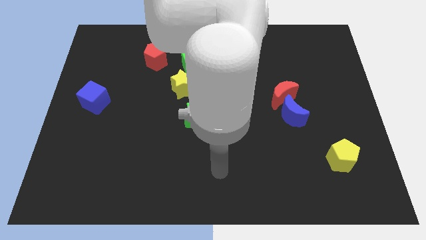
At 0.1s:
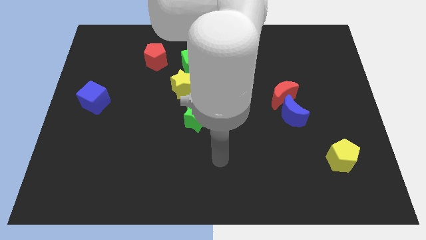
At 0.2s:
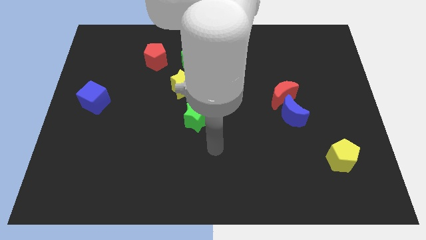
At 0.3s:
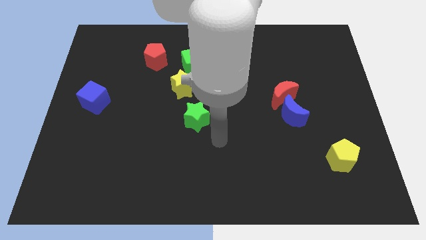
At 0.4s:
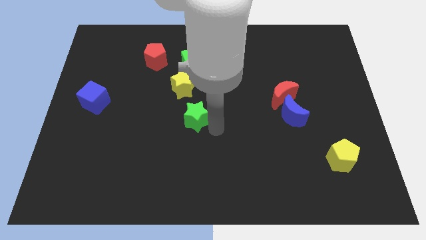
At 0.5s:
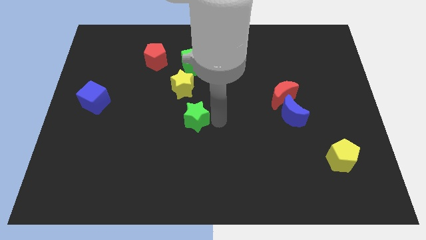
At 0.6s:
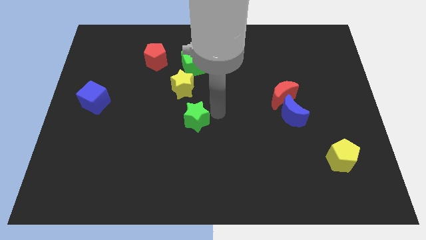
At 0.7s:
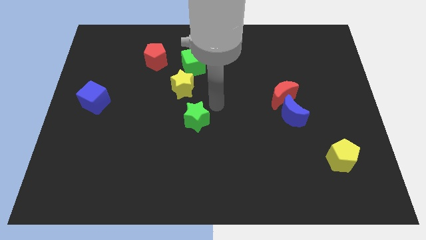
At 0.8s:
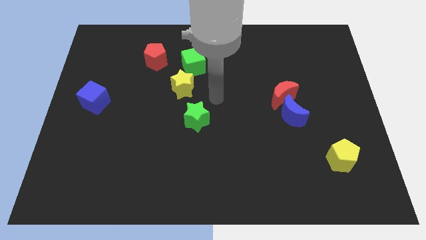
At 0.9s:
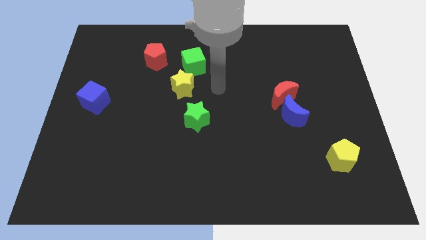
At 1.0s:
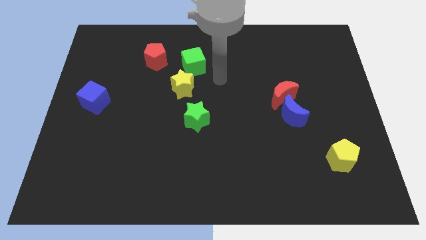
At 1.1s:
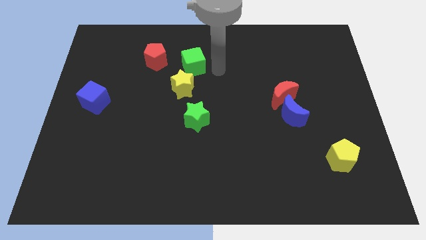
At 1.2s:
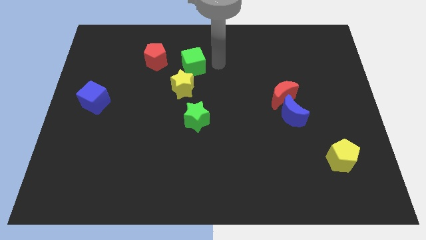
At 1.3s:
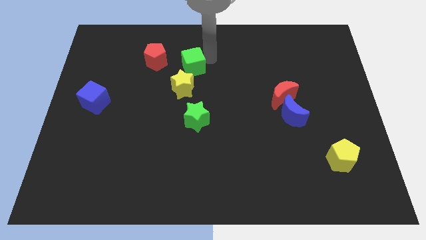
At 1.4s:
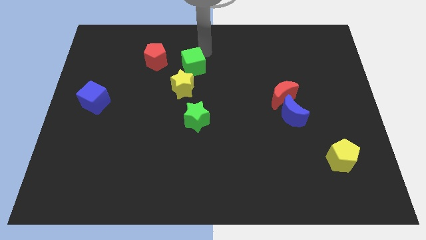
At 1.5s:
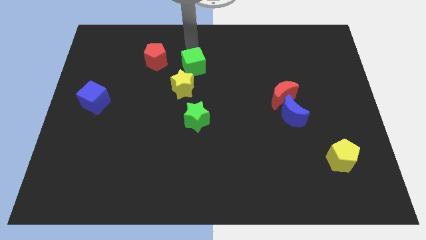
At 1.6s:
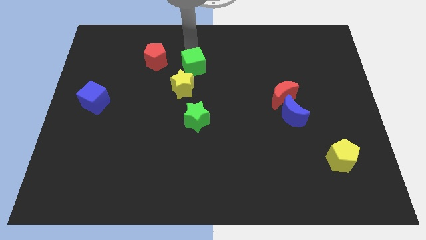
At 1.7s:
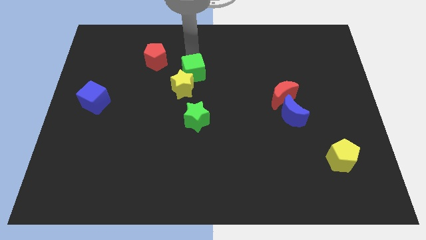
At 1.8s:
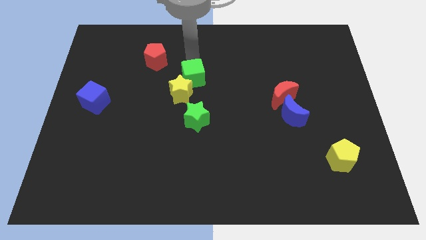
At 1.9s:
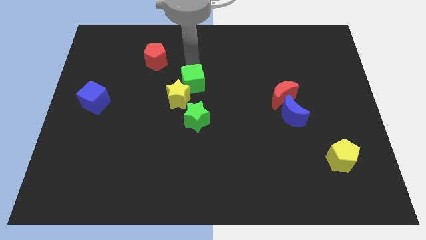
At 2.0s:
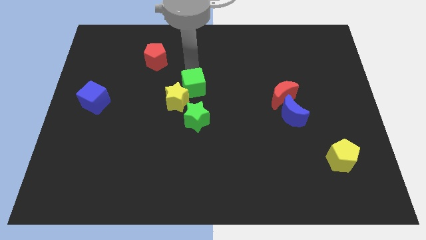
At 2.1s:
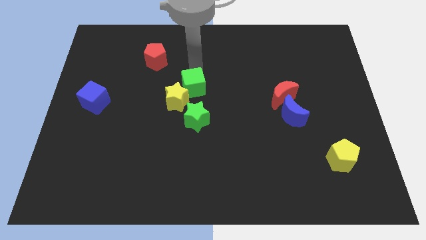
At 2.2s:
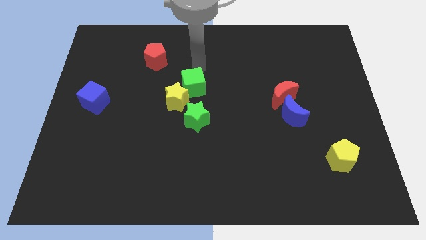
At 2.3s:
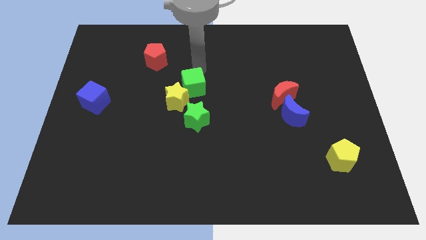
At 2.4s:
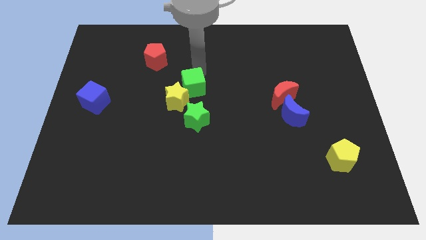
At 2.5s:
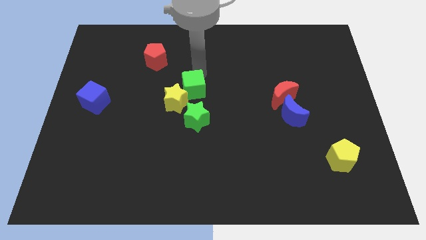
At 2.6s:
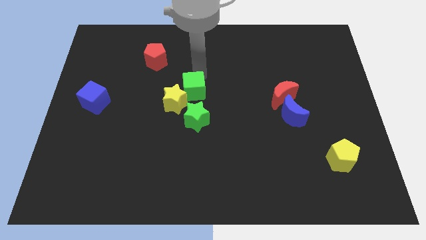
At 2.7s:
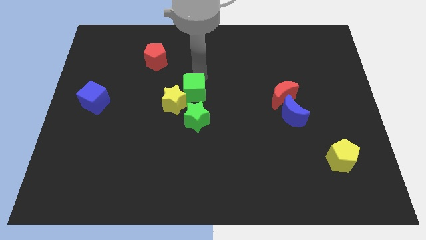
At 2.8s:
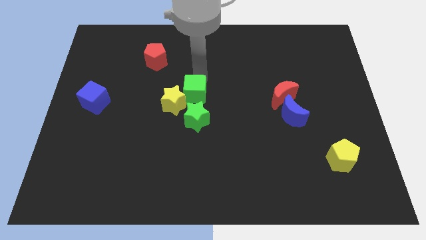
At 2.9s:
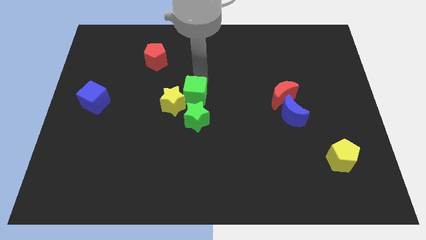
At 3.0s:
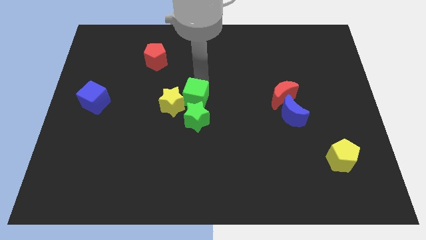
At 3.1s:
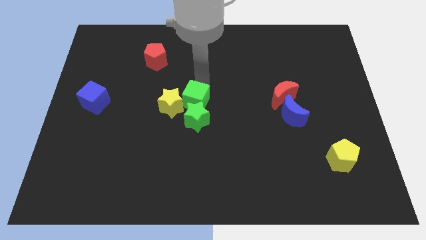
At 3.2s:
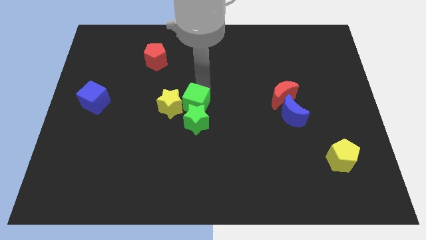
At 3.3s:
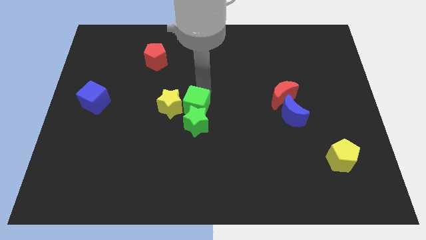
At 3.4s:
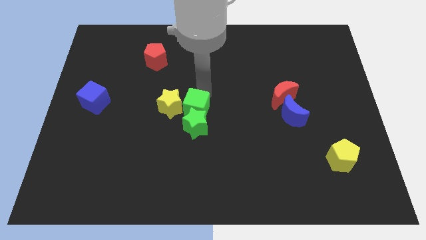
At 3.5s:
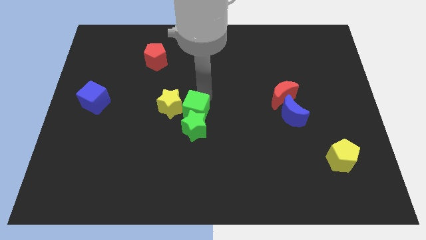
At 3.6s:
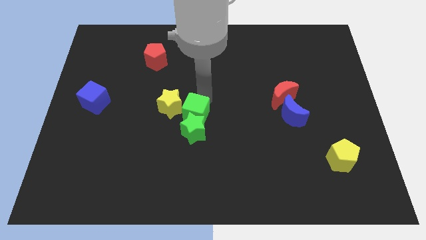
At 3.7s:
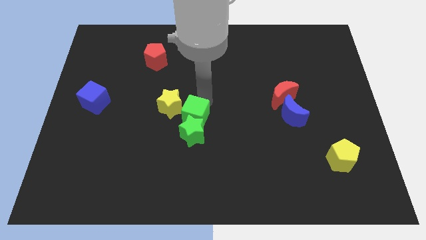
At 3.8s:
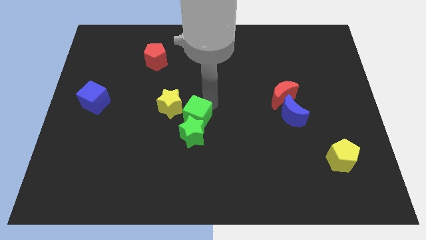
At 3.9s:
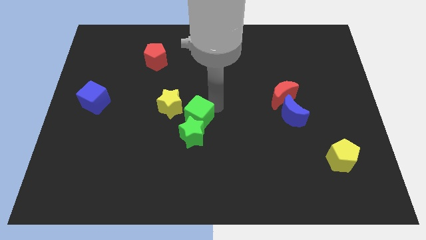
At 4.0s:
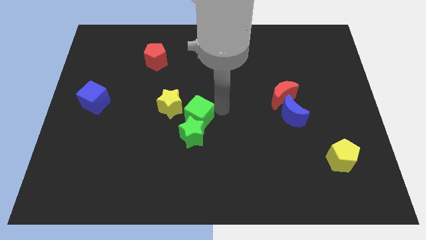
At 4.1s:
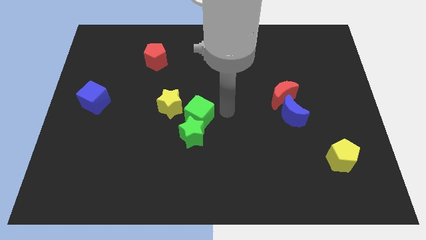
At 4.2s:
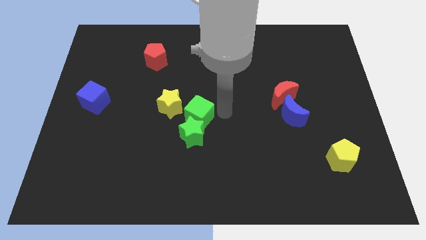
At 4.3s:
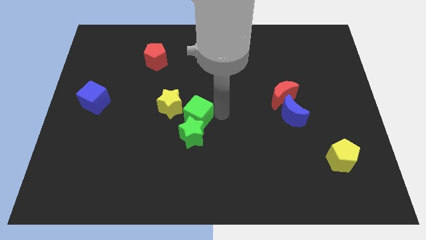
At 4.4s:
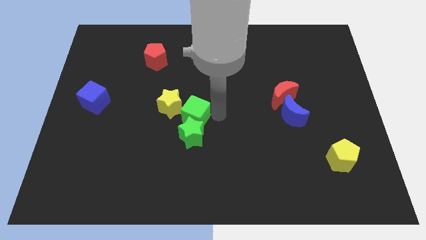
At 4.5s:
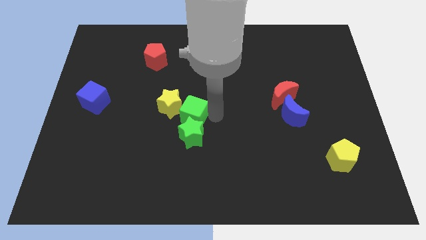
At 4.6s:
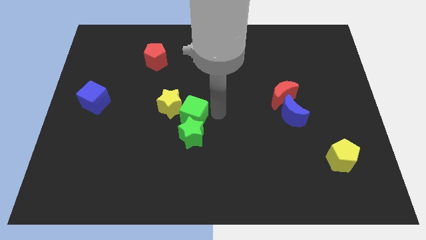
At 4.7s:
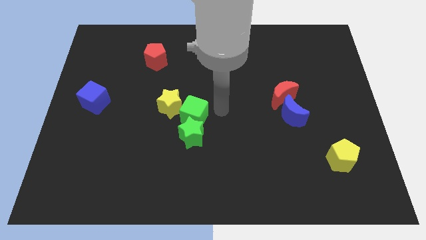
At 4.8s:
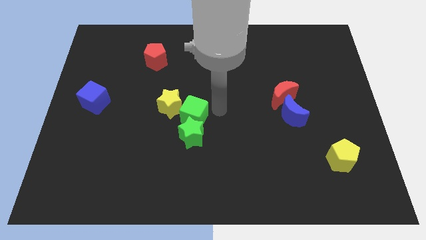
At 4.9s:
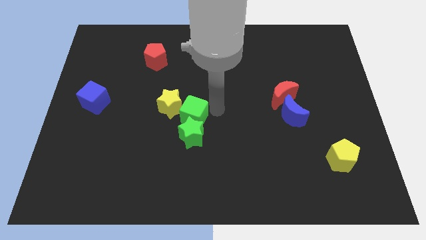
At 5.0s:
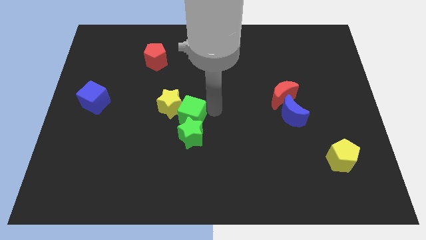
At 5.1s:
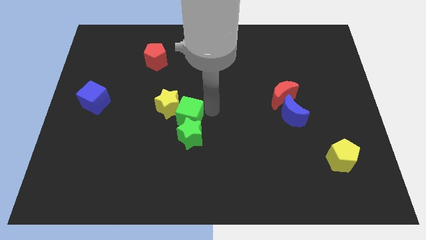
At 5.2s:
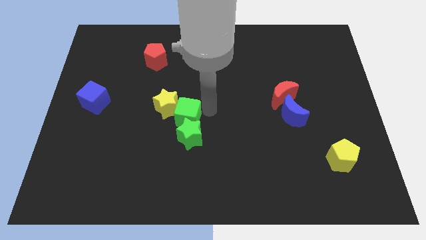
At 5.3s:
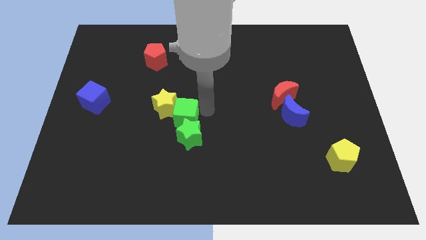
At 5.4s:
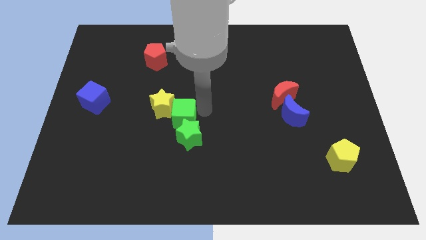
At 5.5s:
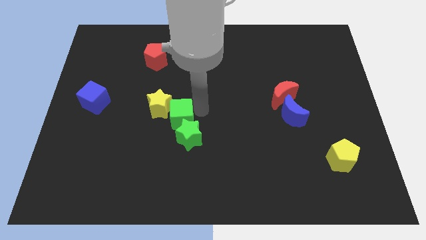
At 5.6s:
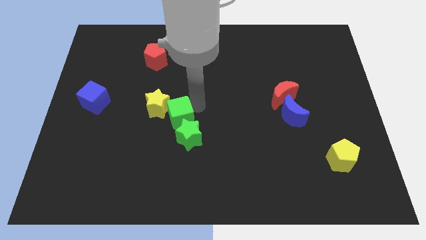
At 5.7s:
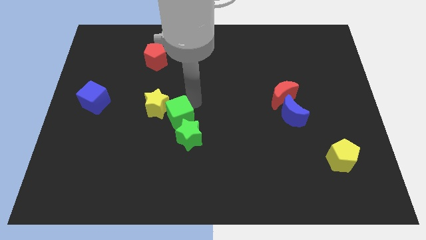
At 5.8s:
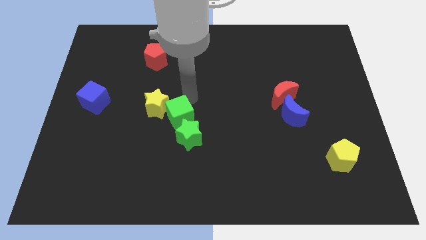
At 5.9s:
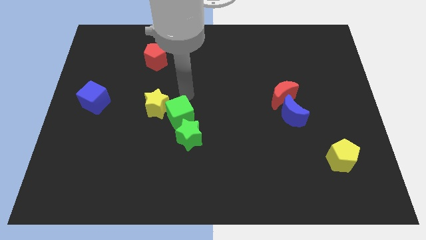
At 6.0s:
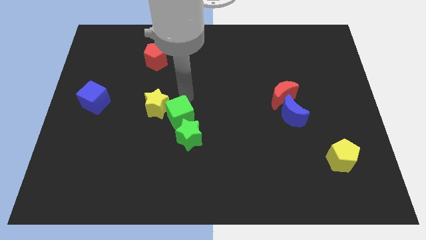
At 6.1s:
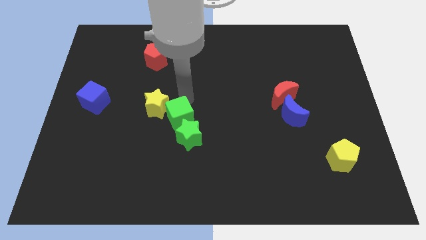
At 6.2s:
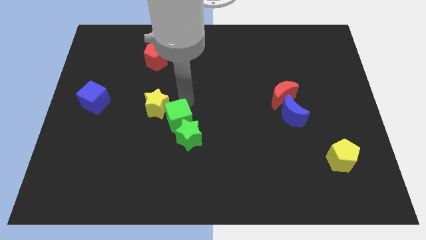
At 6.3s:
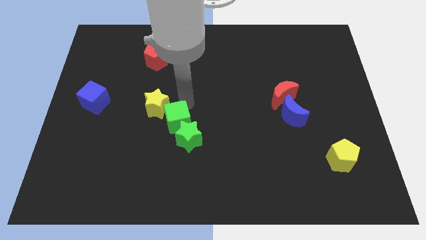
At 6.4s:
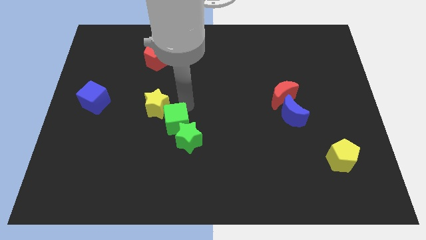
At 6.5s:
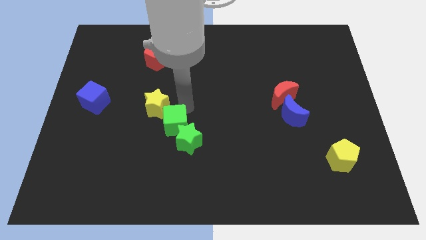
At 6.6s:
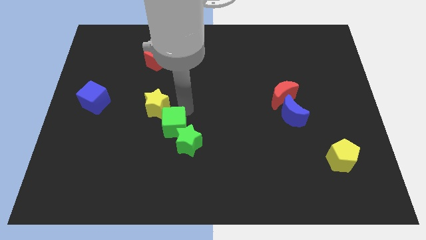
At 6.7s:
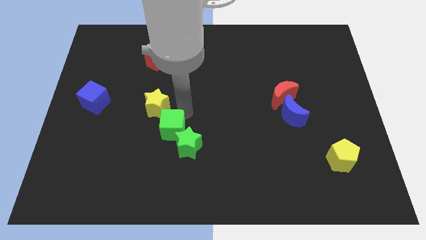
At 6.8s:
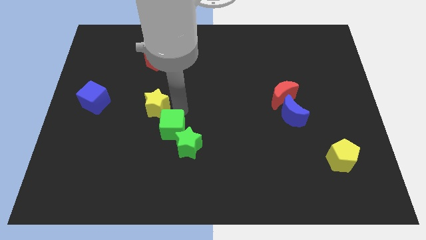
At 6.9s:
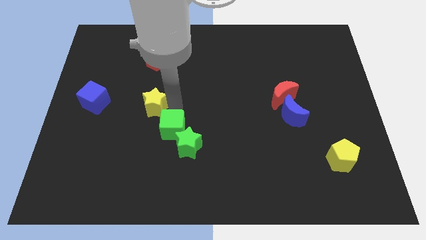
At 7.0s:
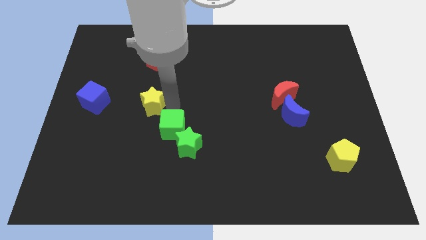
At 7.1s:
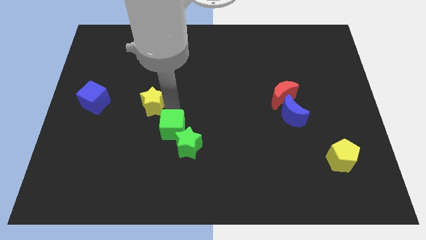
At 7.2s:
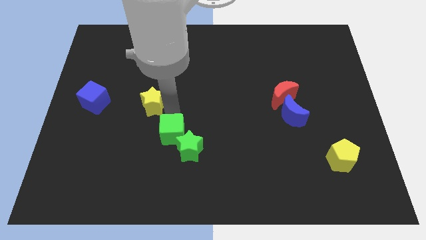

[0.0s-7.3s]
slide the green cube downwards

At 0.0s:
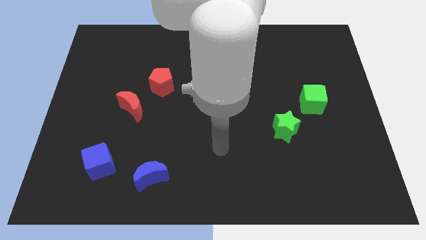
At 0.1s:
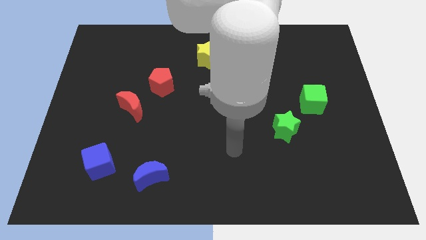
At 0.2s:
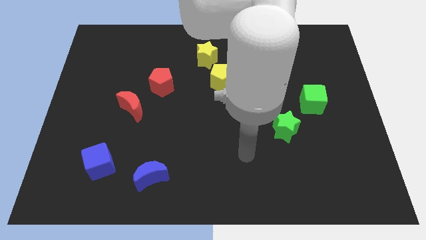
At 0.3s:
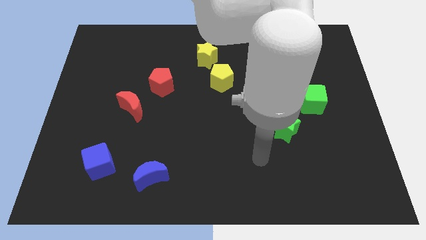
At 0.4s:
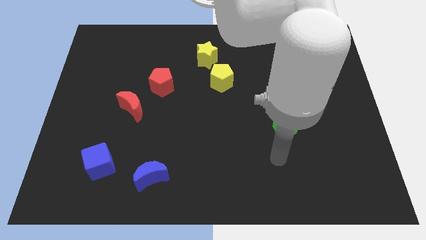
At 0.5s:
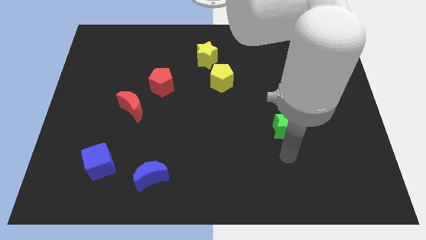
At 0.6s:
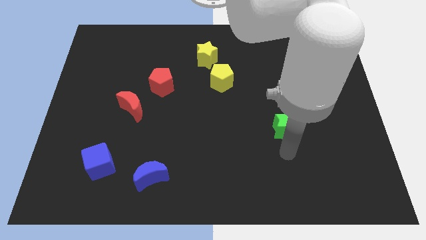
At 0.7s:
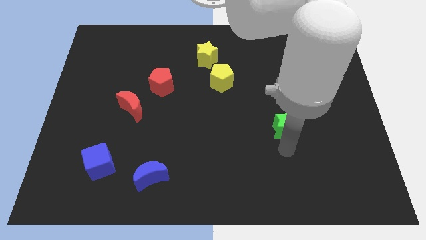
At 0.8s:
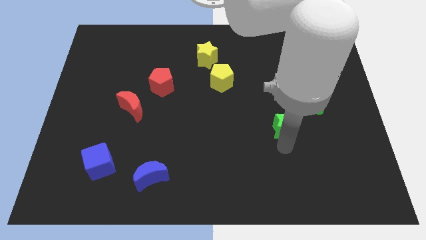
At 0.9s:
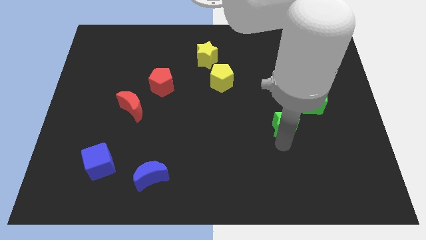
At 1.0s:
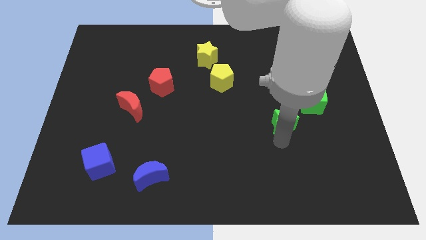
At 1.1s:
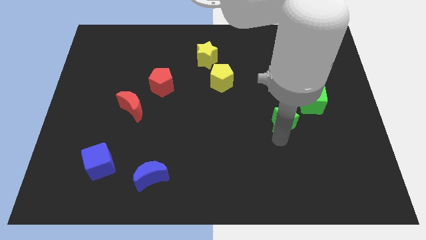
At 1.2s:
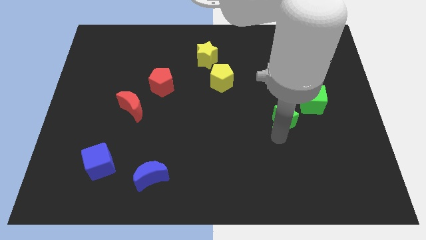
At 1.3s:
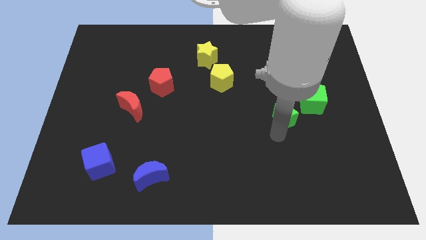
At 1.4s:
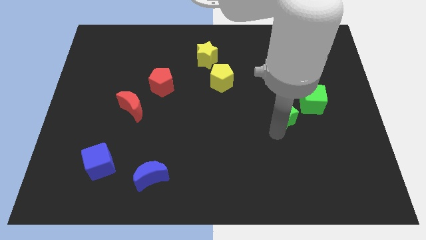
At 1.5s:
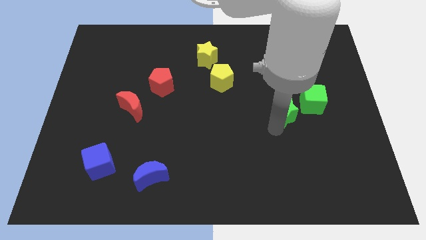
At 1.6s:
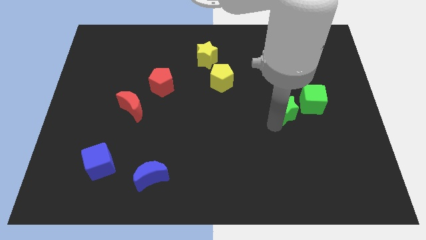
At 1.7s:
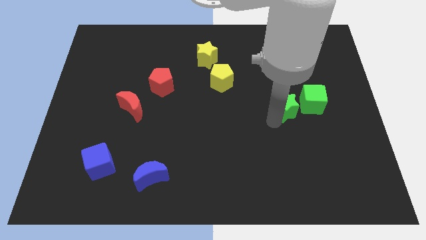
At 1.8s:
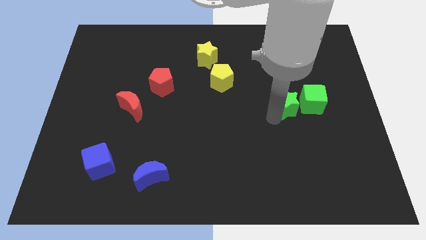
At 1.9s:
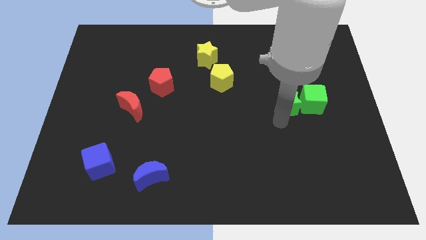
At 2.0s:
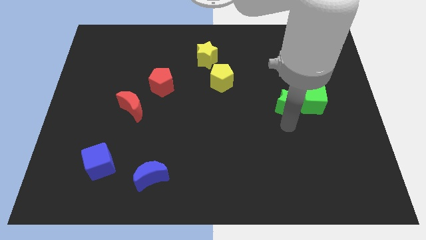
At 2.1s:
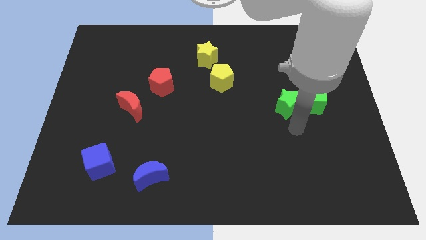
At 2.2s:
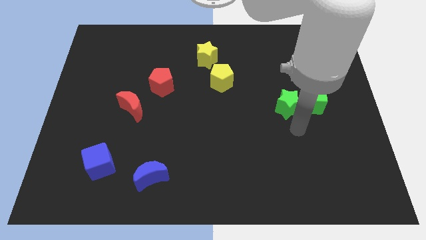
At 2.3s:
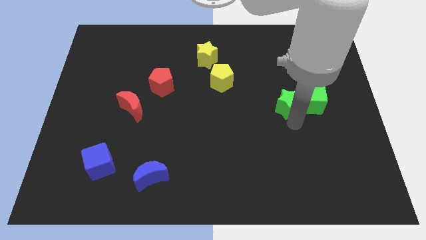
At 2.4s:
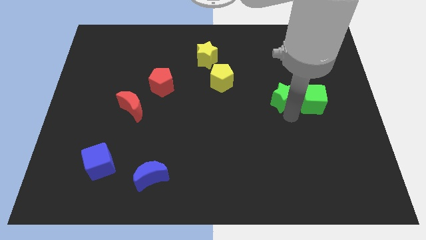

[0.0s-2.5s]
slightly slide the green star upwards
